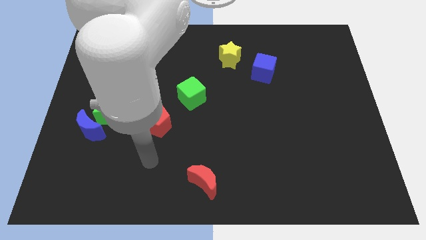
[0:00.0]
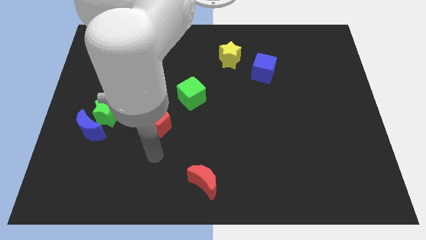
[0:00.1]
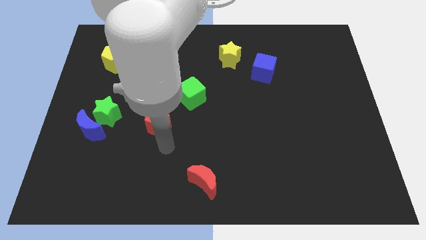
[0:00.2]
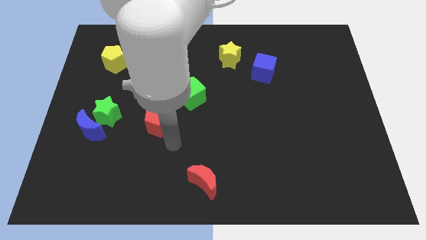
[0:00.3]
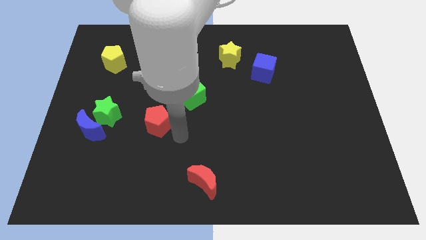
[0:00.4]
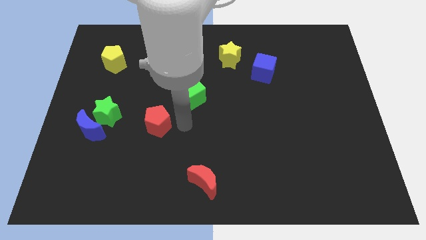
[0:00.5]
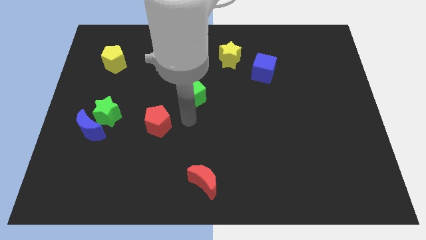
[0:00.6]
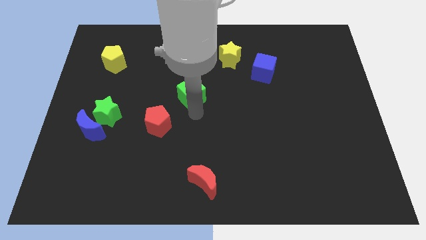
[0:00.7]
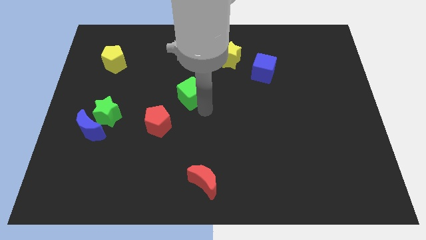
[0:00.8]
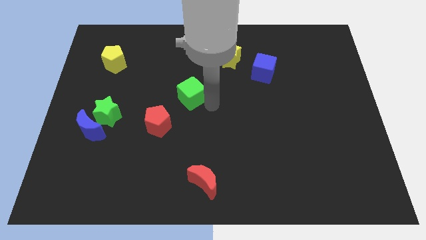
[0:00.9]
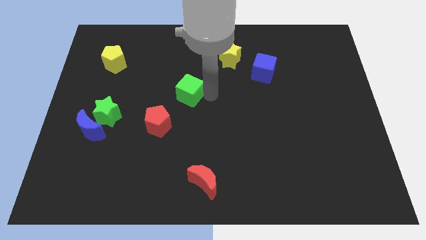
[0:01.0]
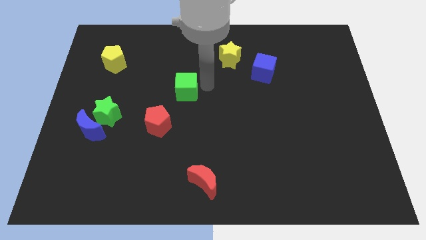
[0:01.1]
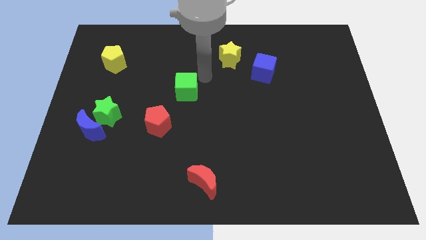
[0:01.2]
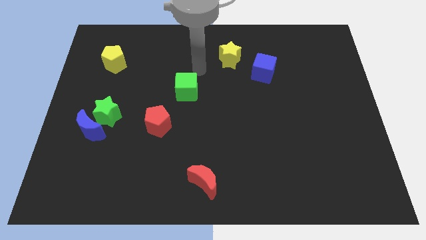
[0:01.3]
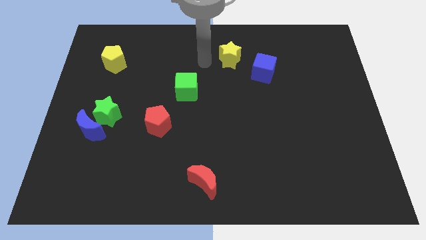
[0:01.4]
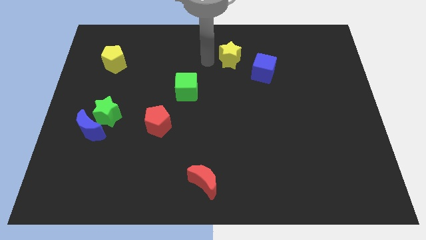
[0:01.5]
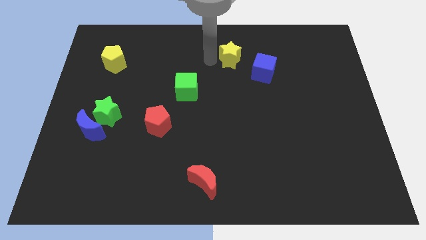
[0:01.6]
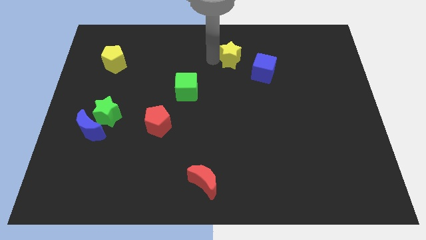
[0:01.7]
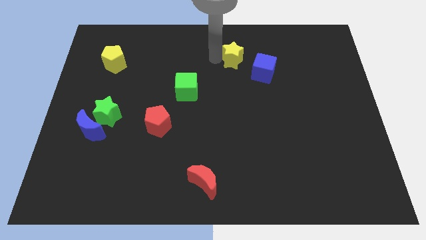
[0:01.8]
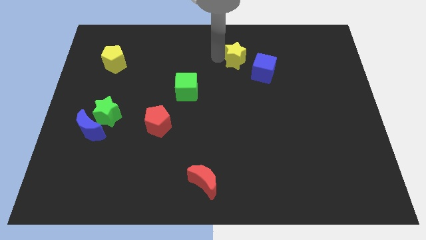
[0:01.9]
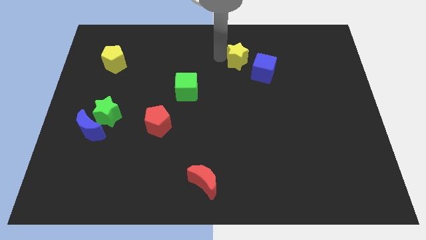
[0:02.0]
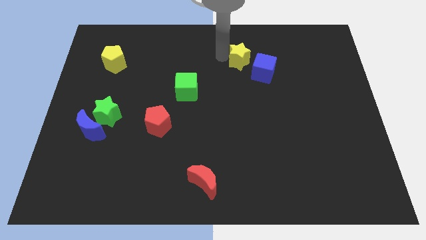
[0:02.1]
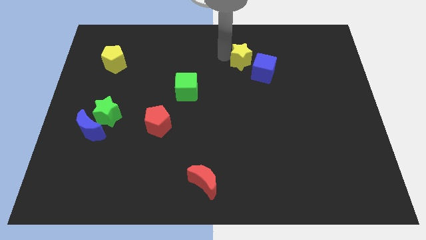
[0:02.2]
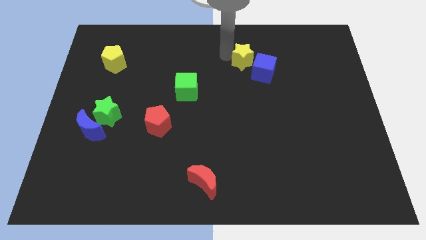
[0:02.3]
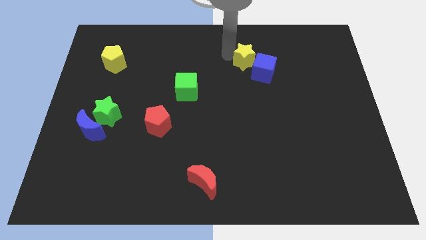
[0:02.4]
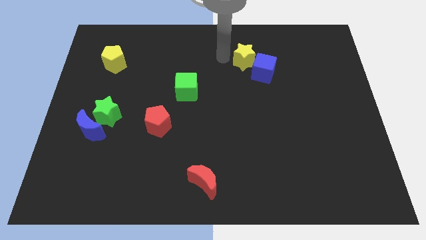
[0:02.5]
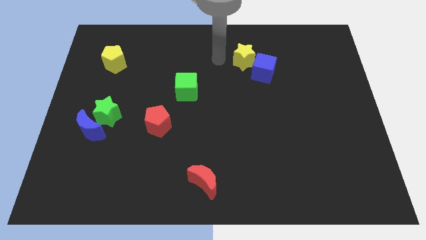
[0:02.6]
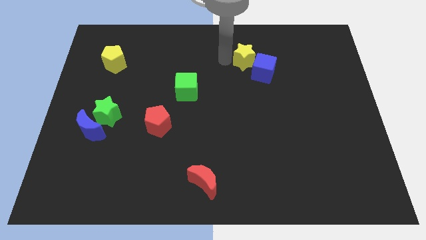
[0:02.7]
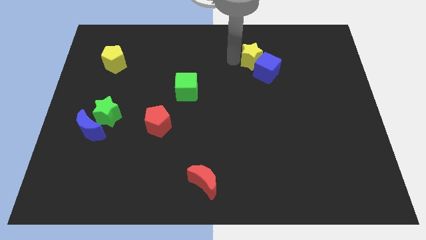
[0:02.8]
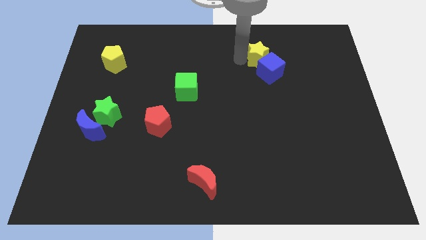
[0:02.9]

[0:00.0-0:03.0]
move the yellow star somewhat to the right

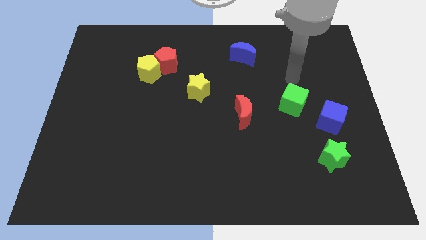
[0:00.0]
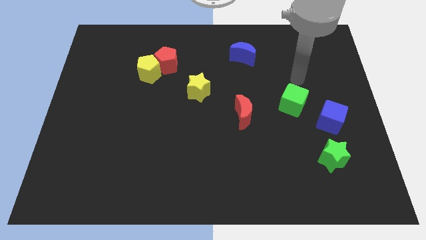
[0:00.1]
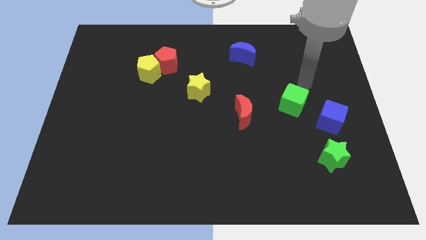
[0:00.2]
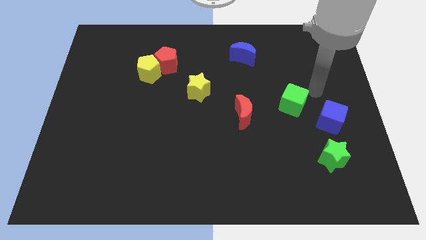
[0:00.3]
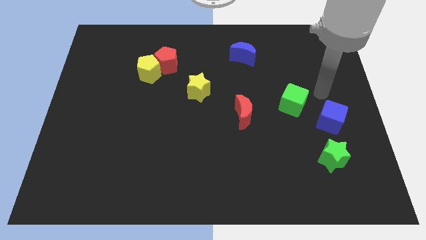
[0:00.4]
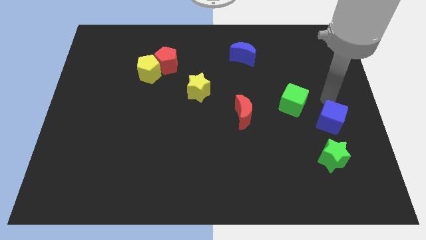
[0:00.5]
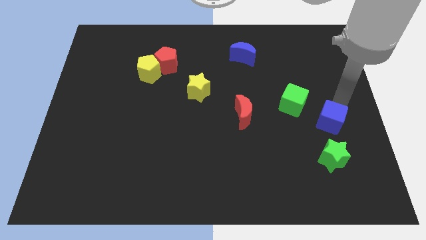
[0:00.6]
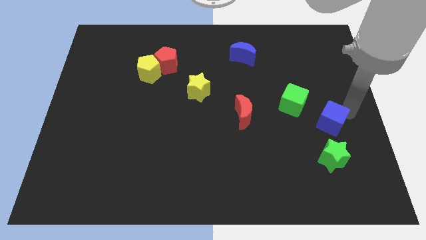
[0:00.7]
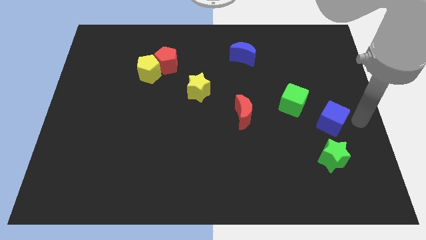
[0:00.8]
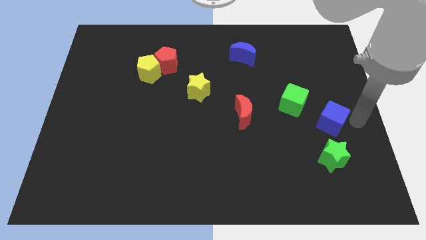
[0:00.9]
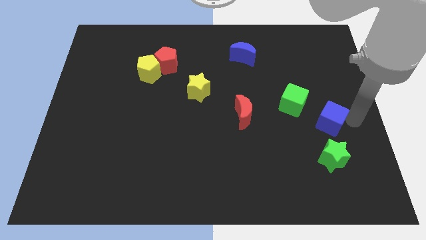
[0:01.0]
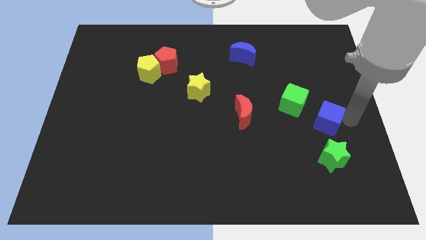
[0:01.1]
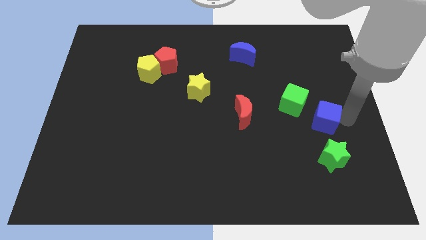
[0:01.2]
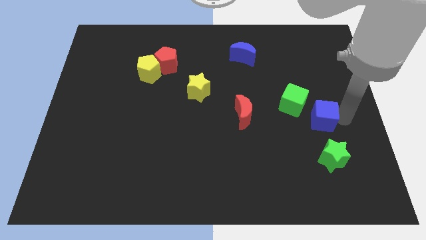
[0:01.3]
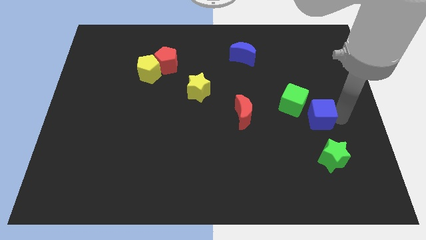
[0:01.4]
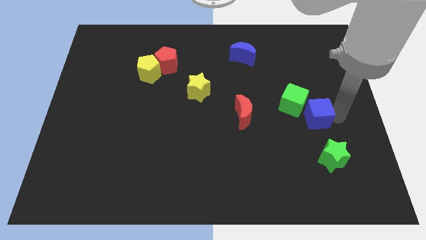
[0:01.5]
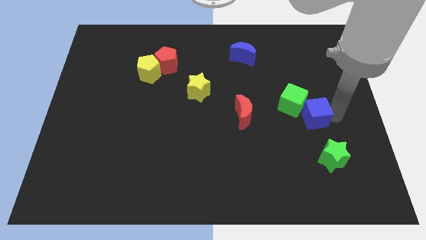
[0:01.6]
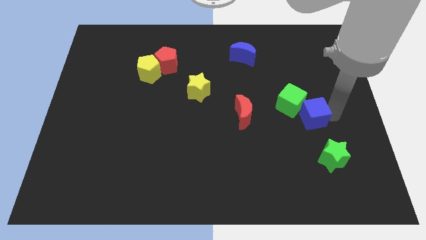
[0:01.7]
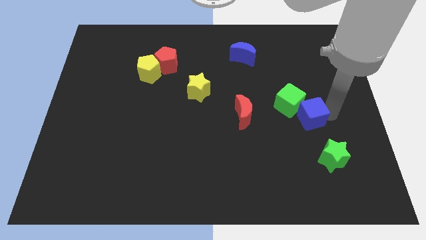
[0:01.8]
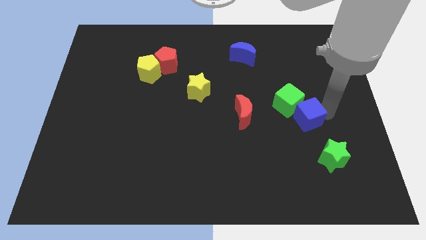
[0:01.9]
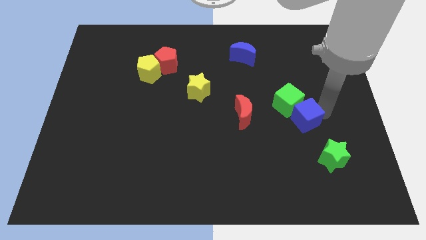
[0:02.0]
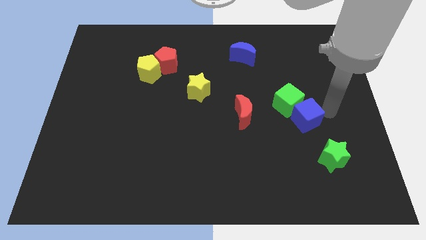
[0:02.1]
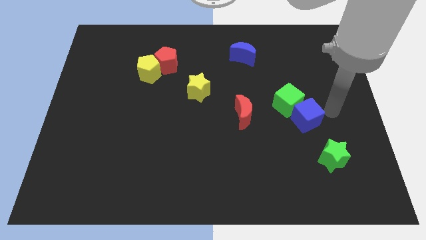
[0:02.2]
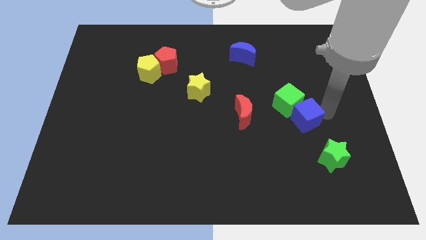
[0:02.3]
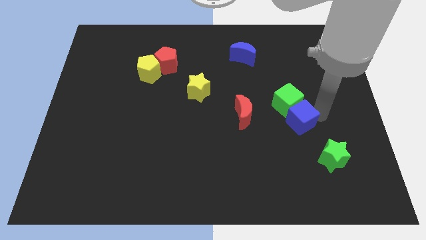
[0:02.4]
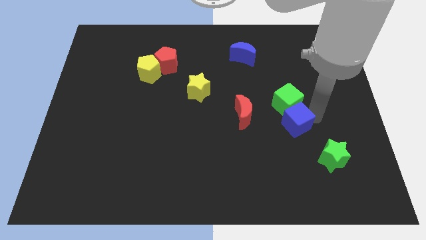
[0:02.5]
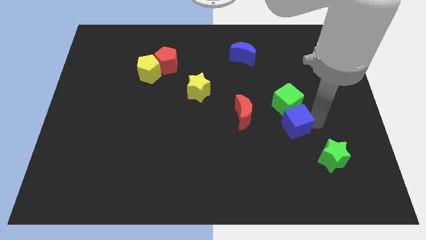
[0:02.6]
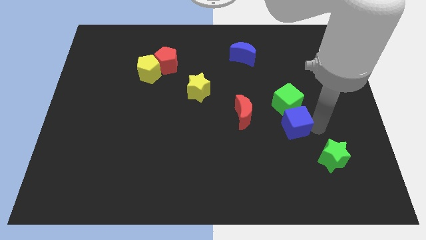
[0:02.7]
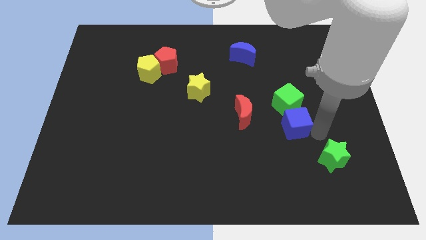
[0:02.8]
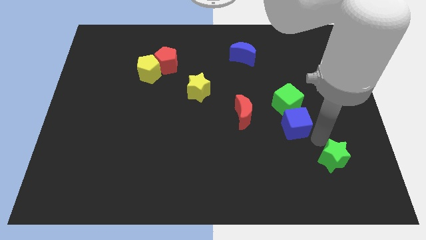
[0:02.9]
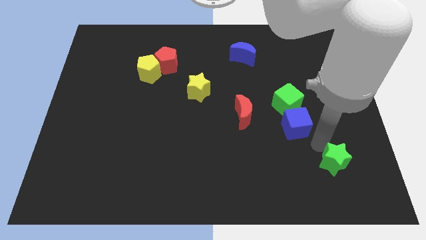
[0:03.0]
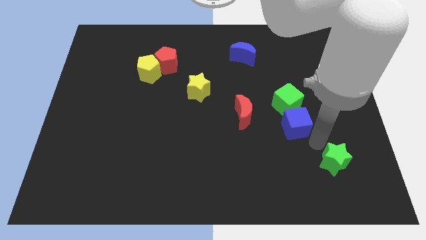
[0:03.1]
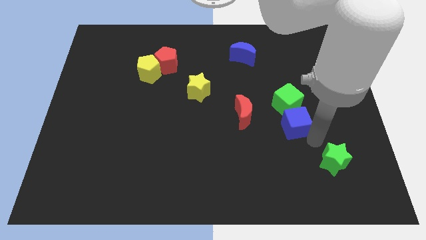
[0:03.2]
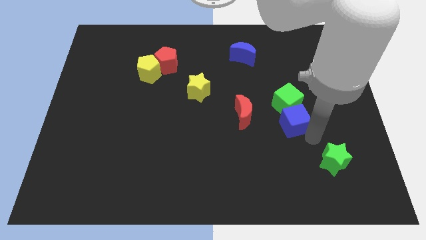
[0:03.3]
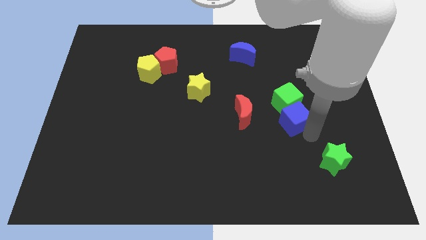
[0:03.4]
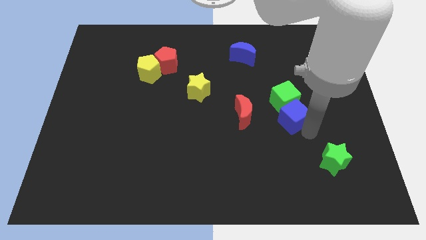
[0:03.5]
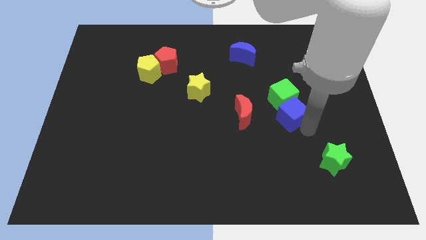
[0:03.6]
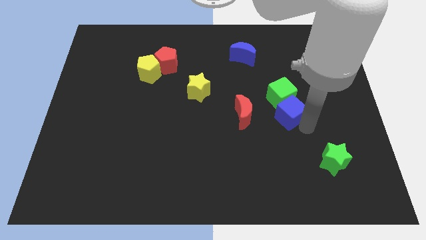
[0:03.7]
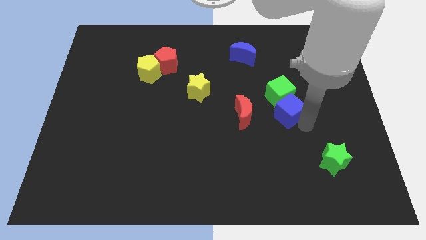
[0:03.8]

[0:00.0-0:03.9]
slide the blue cube a bit upwards and then left

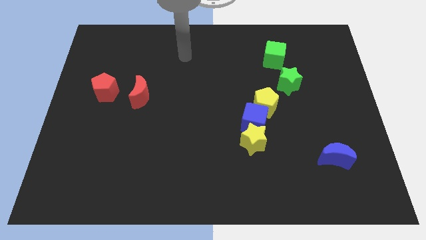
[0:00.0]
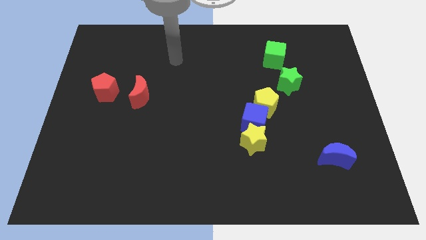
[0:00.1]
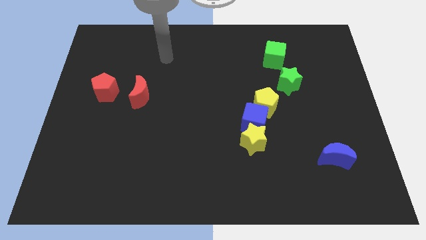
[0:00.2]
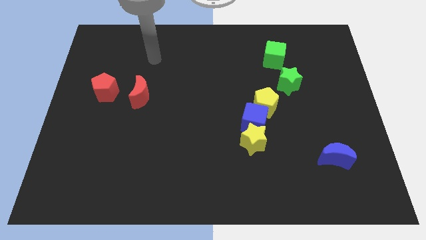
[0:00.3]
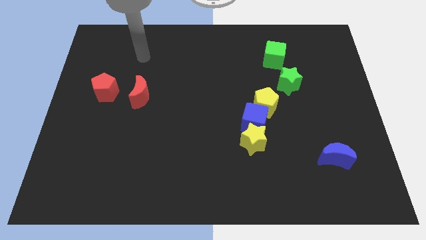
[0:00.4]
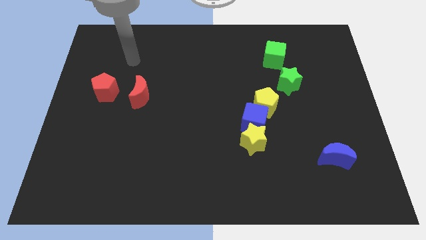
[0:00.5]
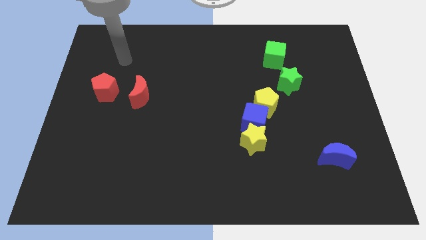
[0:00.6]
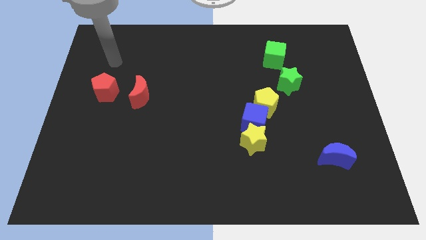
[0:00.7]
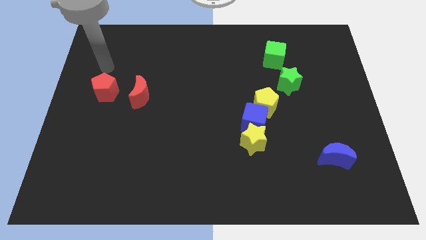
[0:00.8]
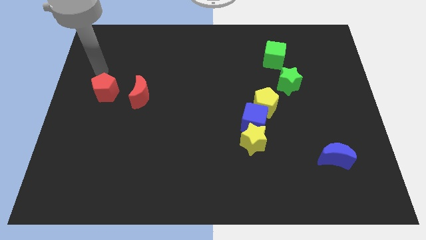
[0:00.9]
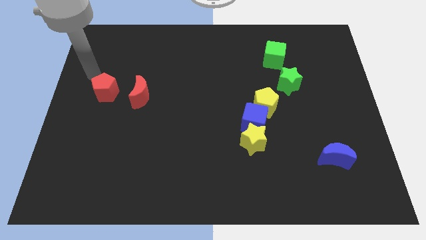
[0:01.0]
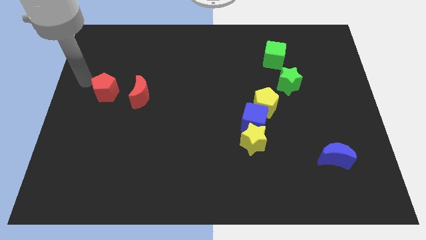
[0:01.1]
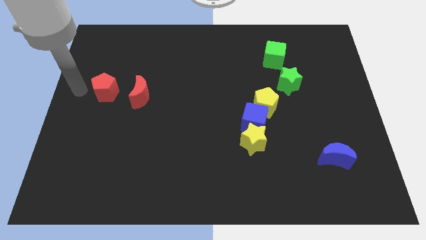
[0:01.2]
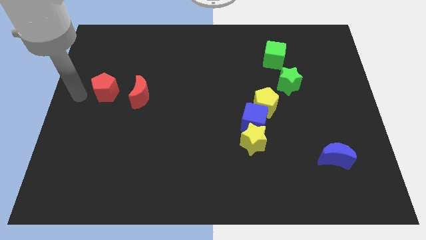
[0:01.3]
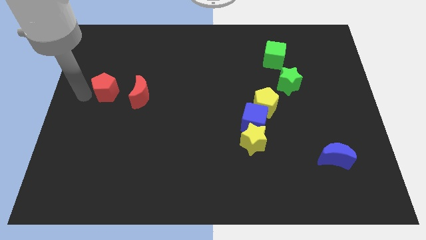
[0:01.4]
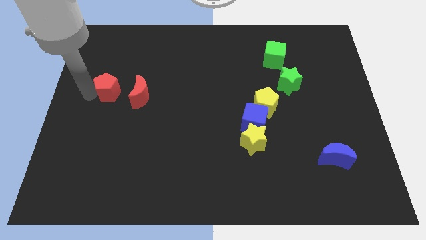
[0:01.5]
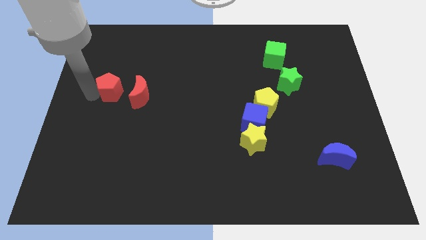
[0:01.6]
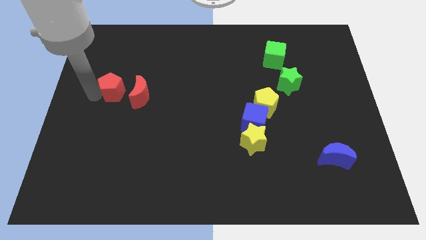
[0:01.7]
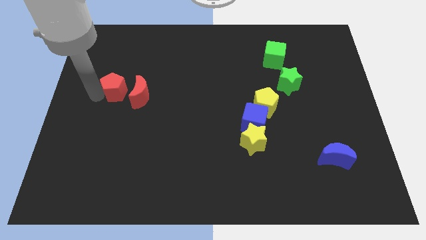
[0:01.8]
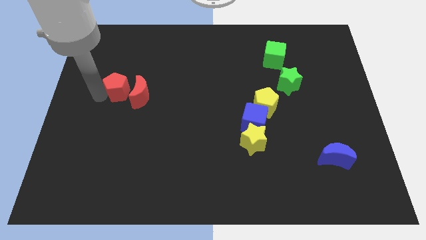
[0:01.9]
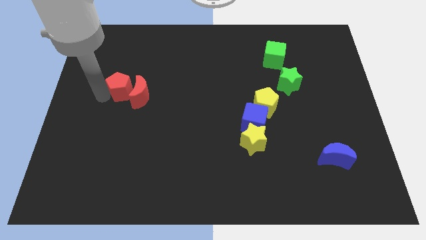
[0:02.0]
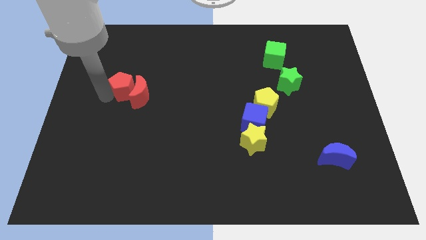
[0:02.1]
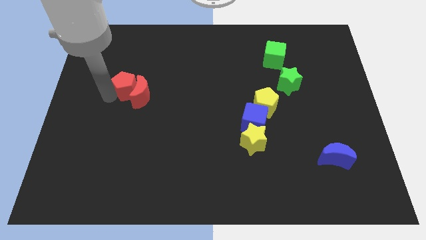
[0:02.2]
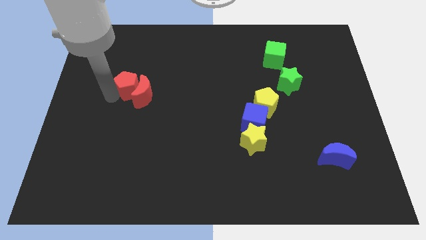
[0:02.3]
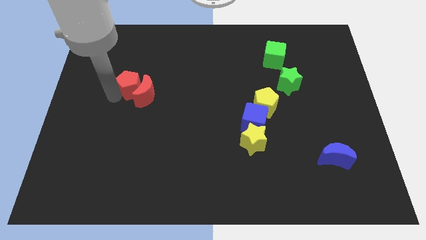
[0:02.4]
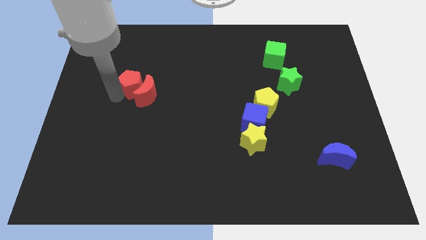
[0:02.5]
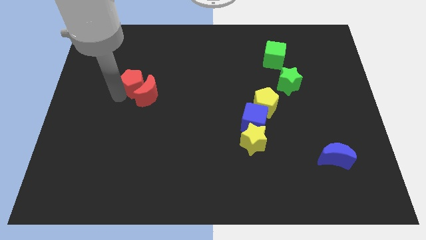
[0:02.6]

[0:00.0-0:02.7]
push the red pentagon right a little
